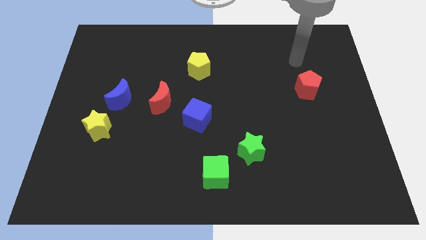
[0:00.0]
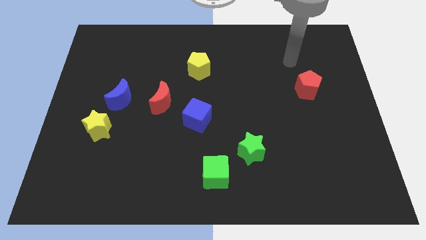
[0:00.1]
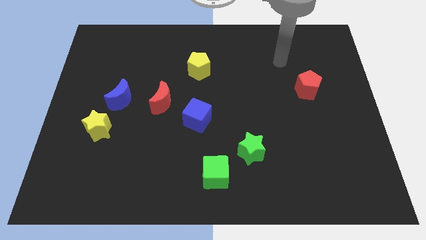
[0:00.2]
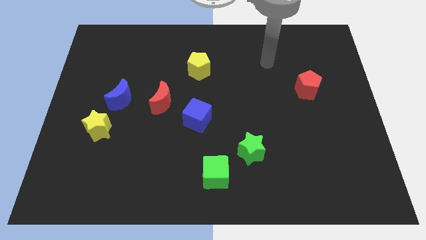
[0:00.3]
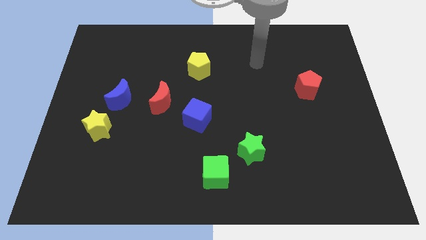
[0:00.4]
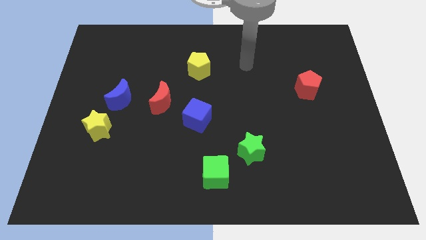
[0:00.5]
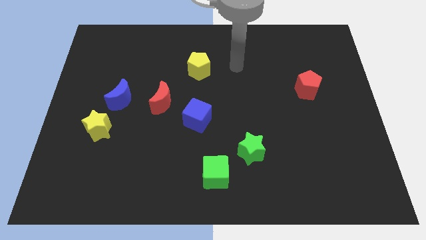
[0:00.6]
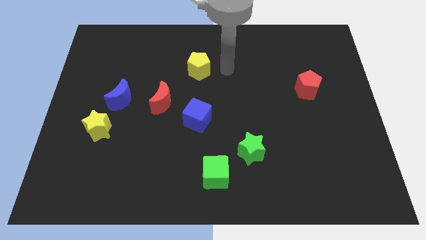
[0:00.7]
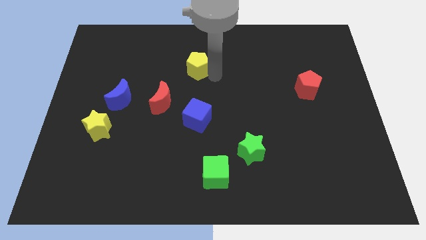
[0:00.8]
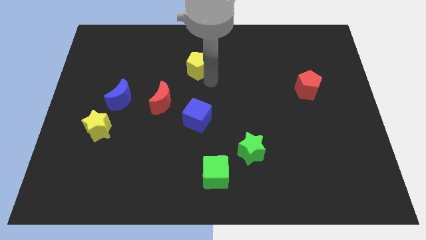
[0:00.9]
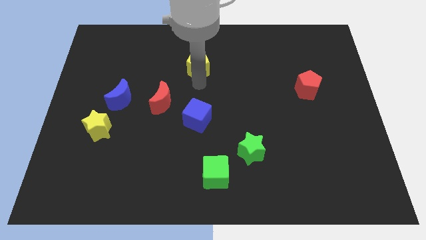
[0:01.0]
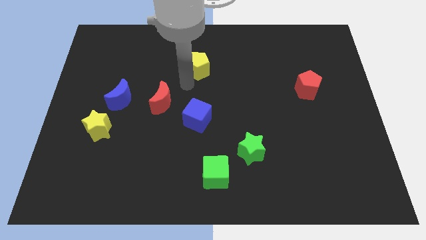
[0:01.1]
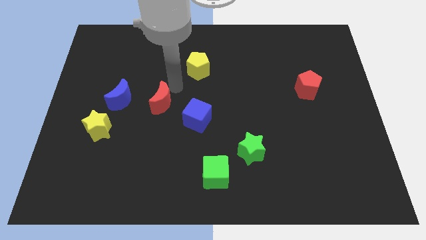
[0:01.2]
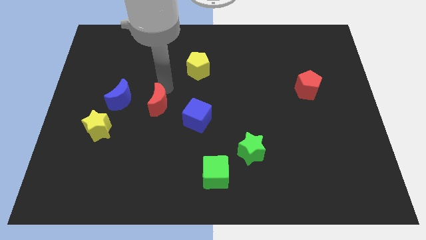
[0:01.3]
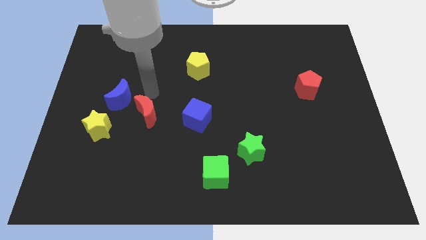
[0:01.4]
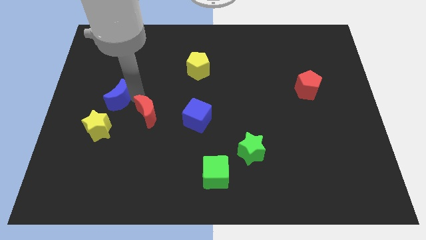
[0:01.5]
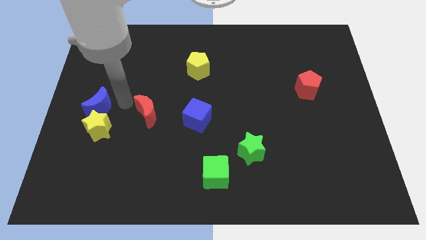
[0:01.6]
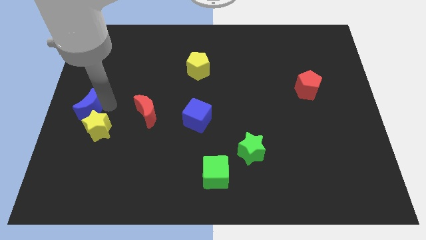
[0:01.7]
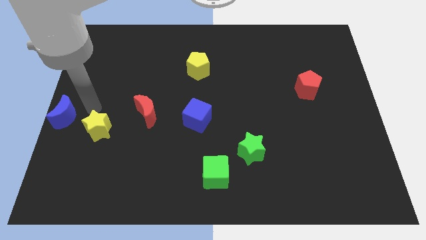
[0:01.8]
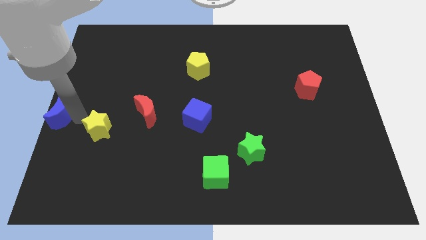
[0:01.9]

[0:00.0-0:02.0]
move the yellow star away from the blue moon

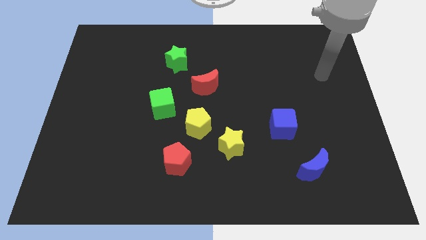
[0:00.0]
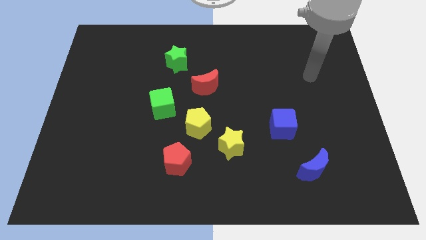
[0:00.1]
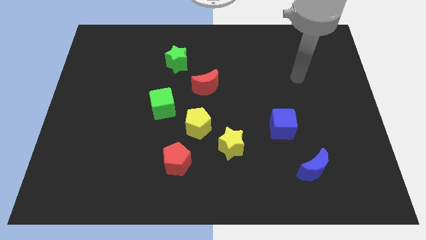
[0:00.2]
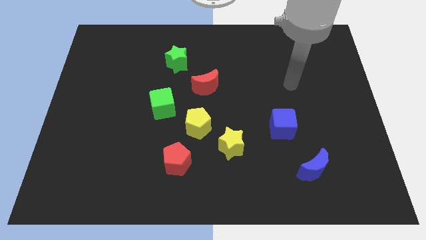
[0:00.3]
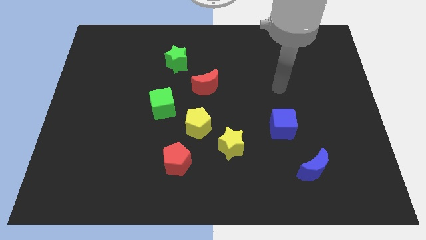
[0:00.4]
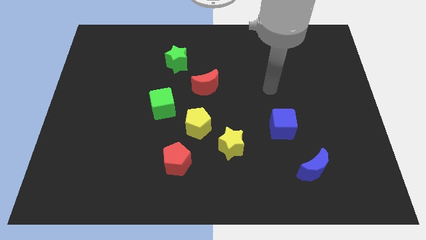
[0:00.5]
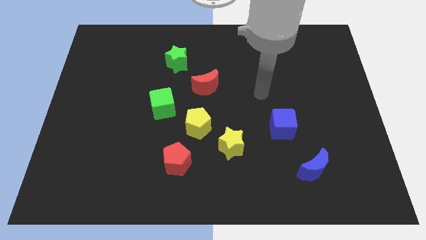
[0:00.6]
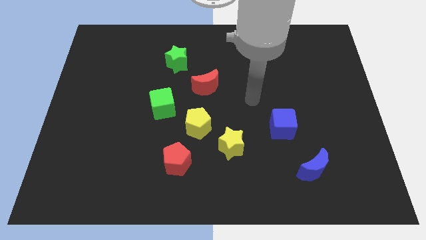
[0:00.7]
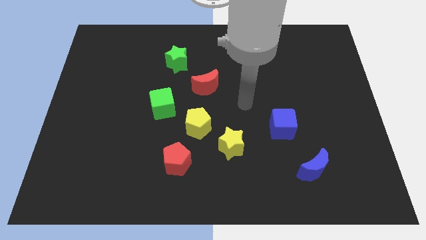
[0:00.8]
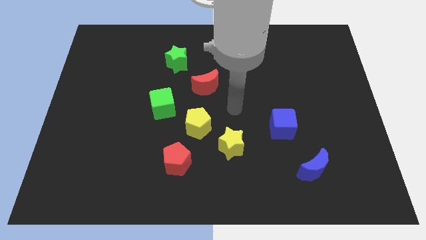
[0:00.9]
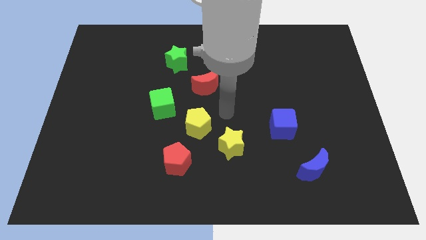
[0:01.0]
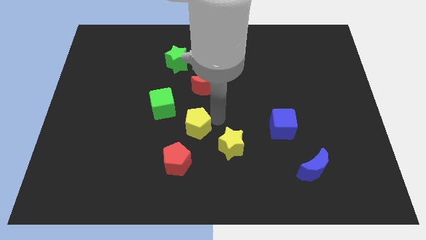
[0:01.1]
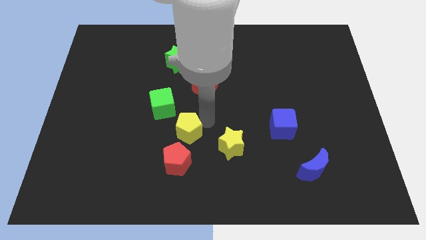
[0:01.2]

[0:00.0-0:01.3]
move the yellow star away from the yellow pentagon

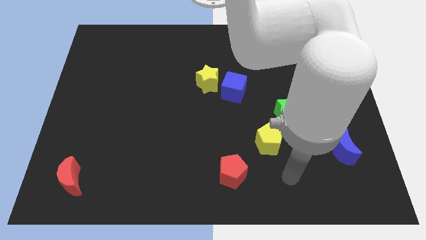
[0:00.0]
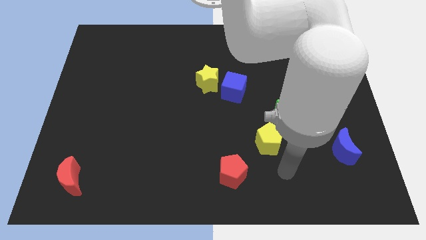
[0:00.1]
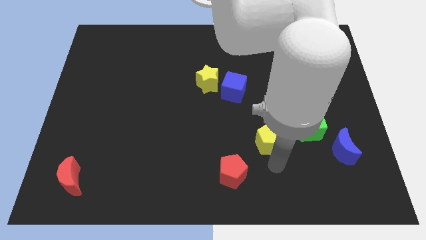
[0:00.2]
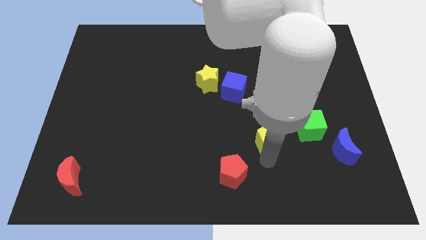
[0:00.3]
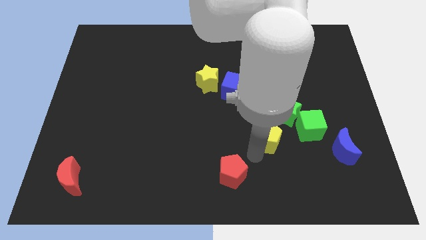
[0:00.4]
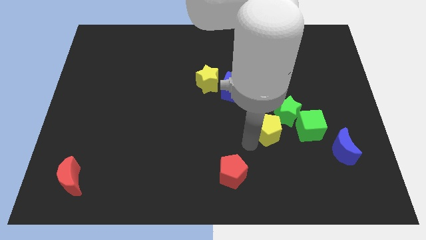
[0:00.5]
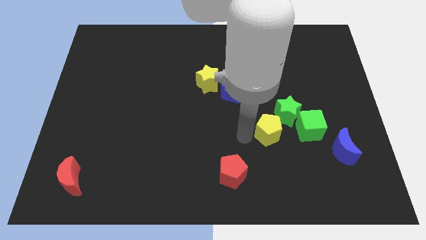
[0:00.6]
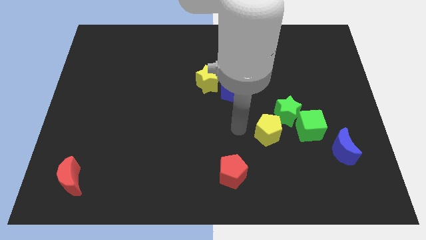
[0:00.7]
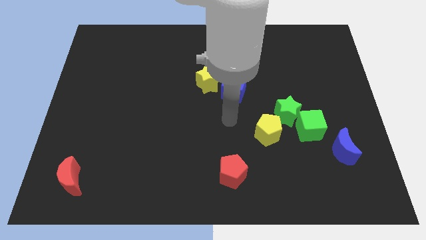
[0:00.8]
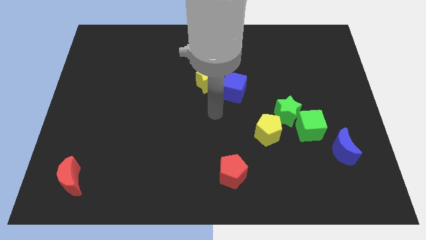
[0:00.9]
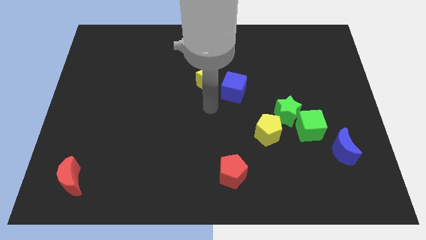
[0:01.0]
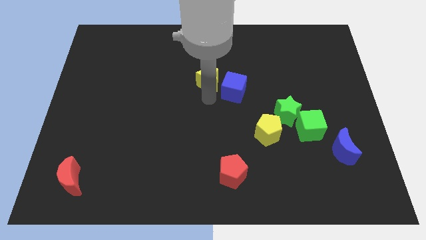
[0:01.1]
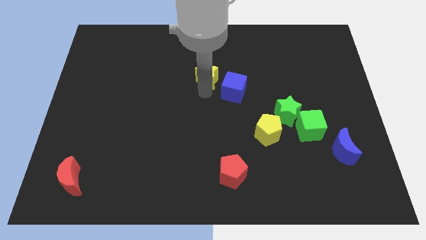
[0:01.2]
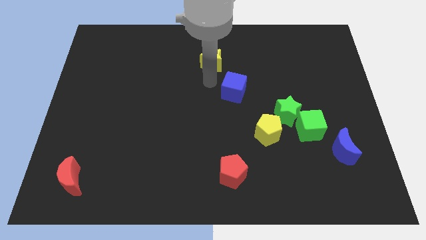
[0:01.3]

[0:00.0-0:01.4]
separate the blue cube from the yellow star

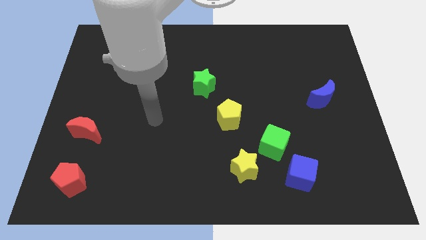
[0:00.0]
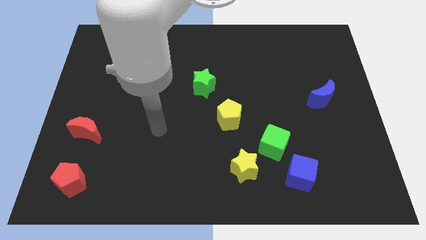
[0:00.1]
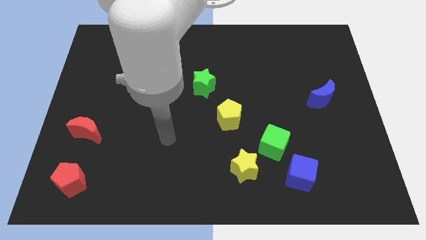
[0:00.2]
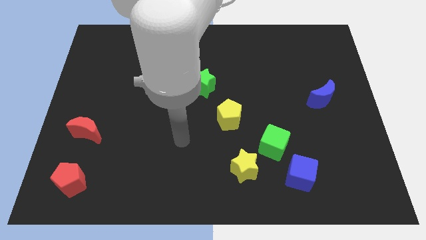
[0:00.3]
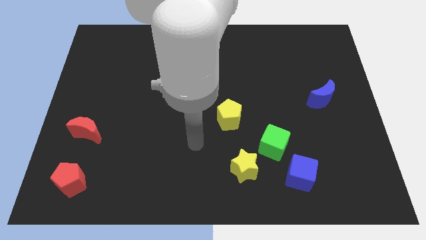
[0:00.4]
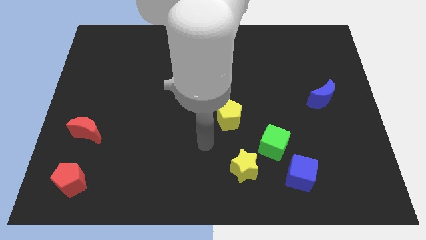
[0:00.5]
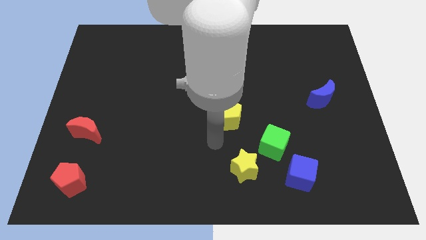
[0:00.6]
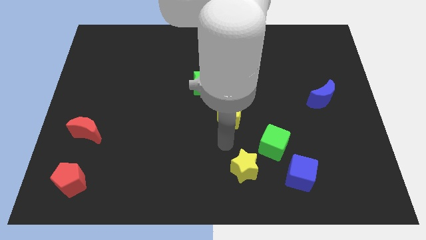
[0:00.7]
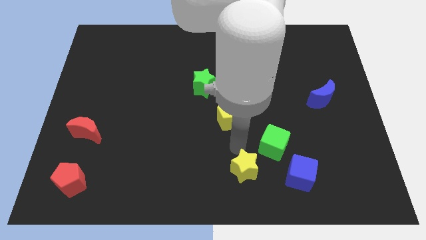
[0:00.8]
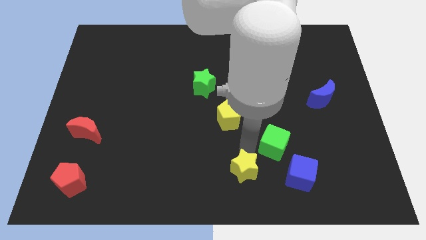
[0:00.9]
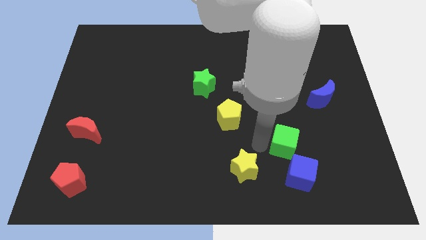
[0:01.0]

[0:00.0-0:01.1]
separate the yellow star from the green cube

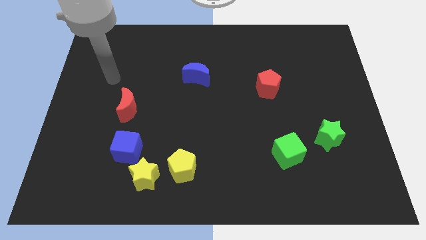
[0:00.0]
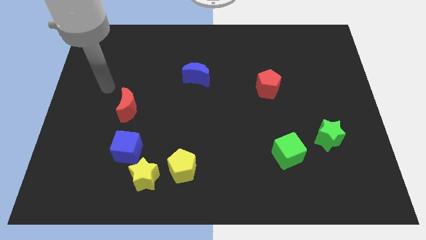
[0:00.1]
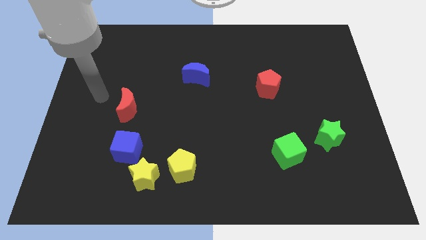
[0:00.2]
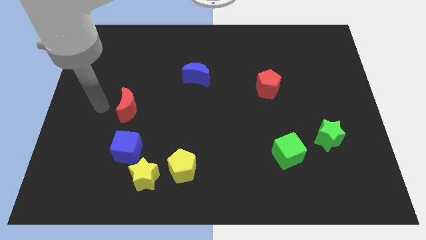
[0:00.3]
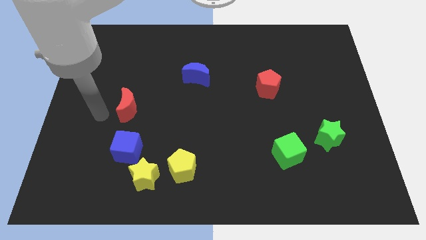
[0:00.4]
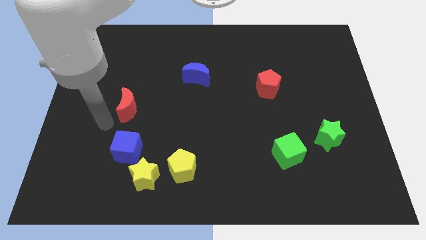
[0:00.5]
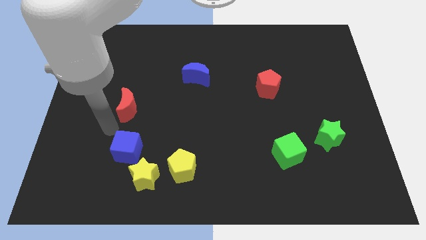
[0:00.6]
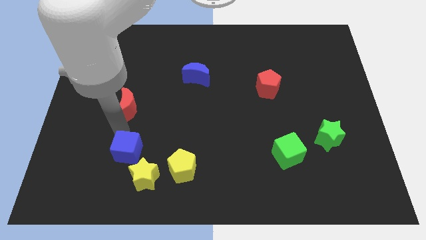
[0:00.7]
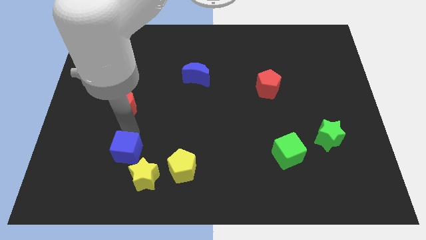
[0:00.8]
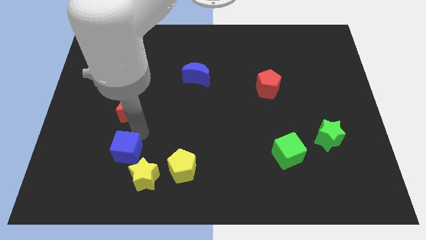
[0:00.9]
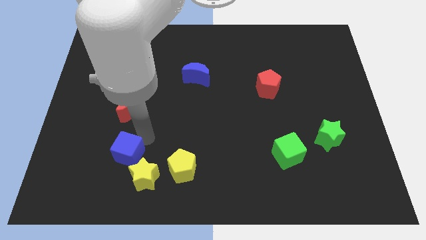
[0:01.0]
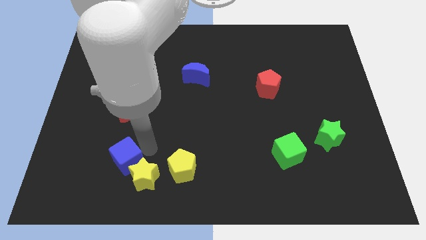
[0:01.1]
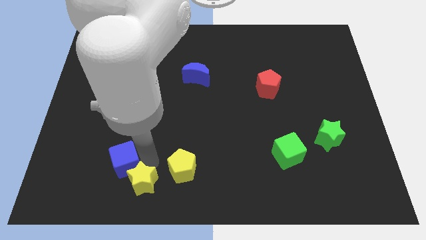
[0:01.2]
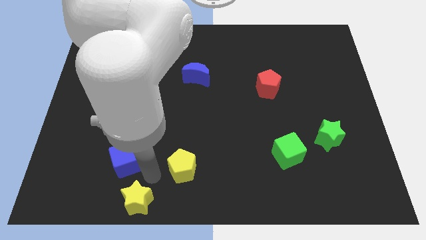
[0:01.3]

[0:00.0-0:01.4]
move the yellow pentagon away from the yellow star

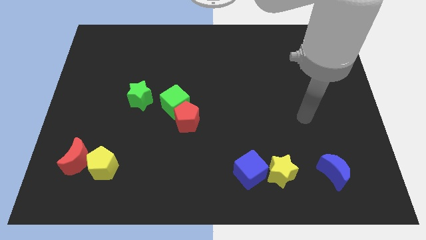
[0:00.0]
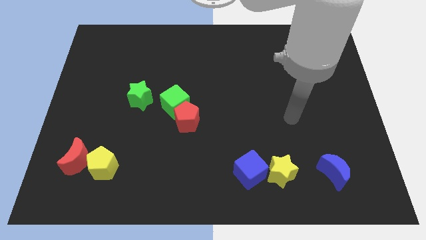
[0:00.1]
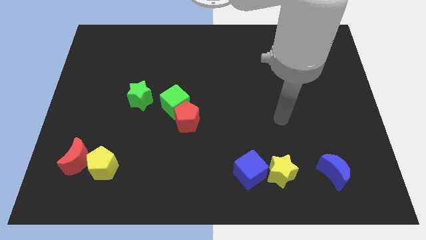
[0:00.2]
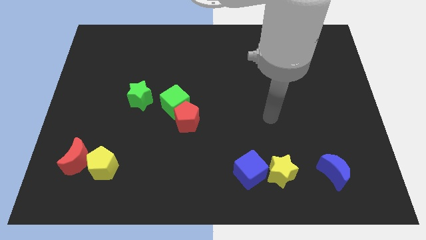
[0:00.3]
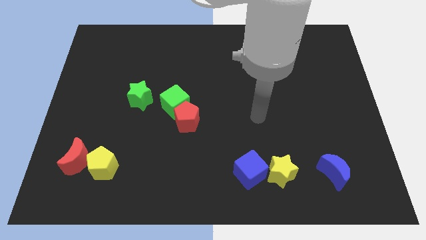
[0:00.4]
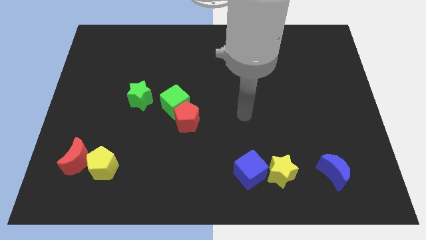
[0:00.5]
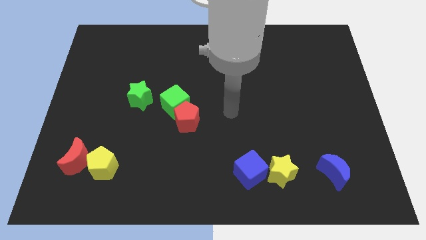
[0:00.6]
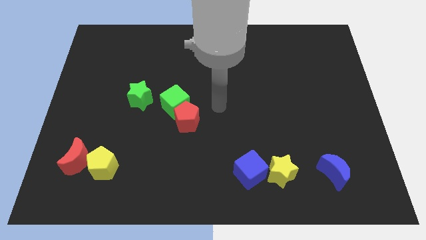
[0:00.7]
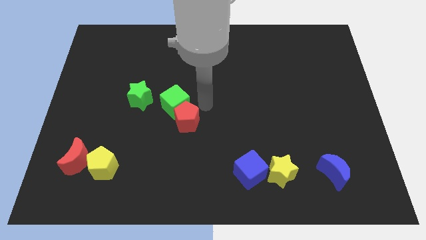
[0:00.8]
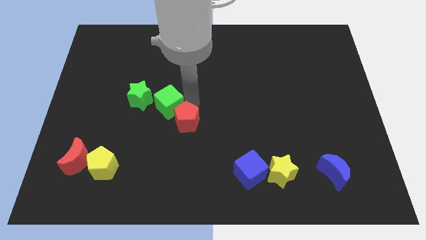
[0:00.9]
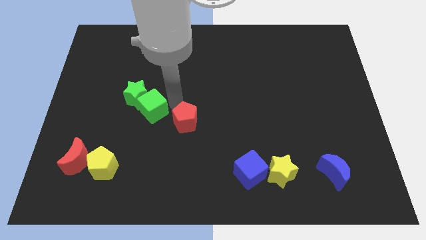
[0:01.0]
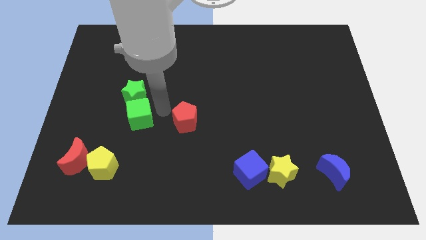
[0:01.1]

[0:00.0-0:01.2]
move the red pentagon away from the green cube

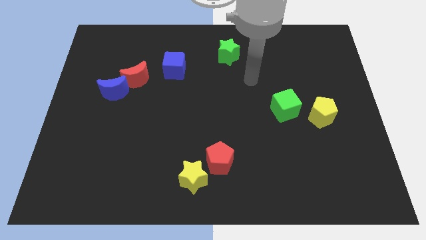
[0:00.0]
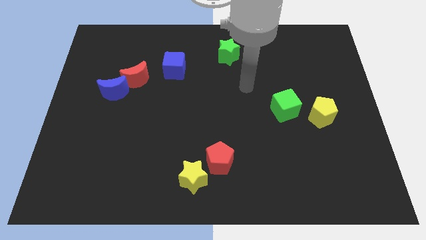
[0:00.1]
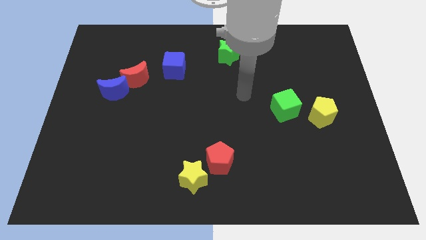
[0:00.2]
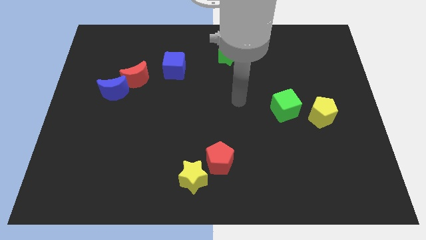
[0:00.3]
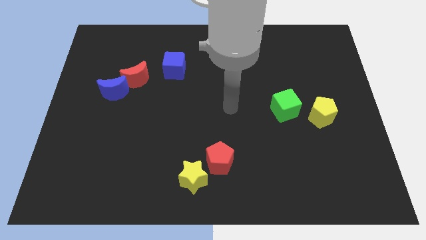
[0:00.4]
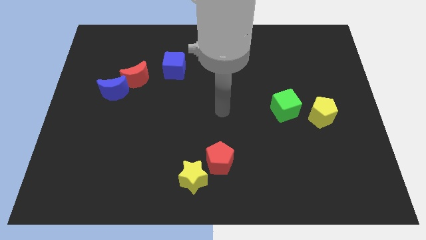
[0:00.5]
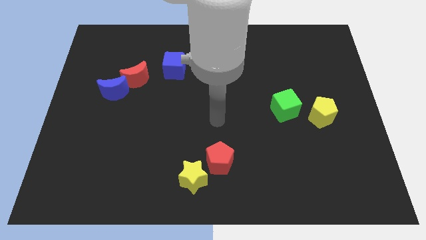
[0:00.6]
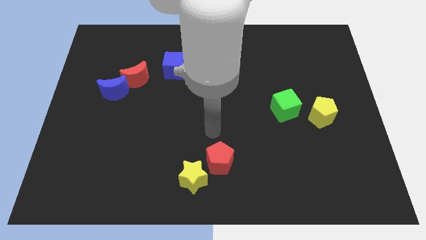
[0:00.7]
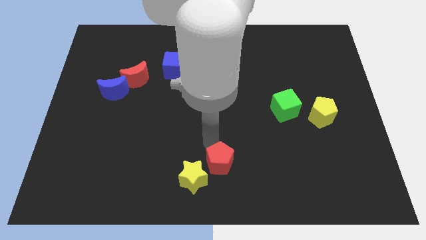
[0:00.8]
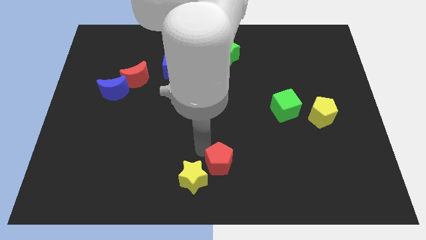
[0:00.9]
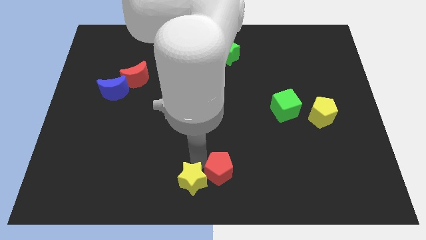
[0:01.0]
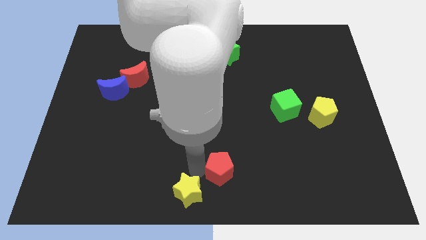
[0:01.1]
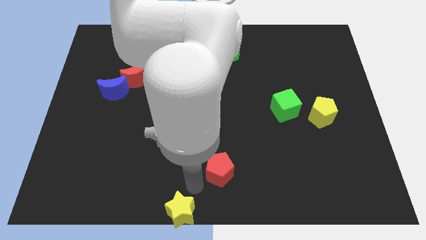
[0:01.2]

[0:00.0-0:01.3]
pull the red pentagon apart from the yellow star
